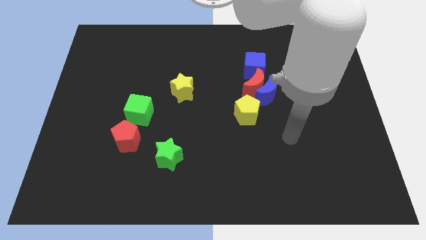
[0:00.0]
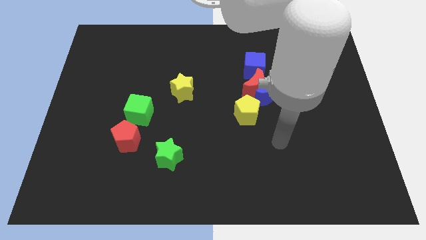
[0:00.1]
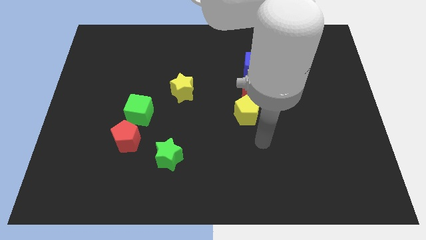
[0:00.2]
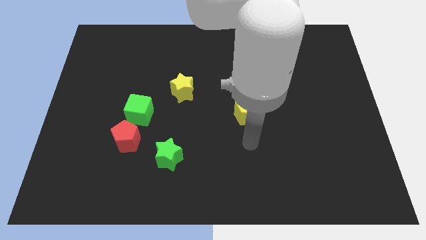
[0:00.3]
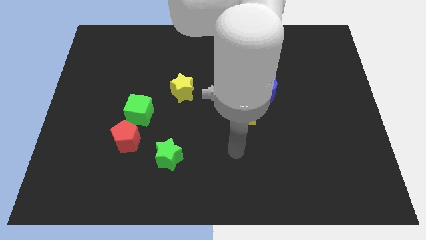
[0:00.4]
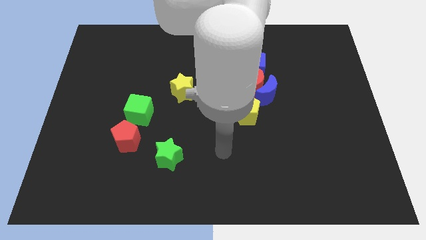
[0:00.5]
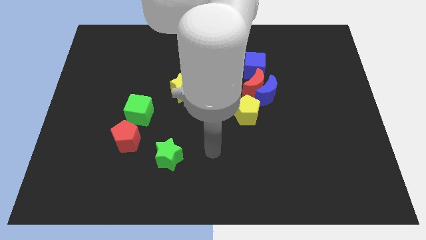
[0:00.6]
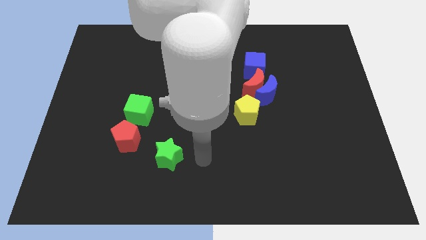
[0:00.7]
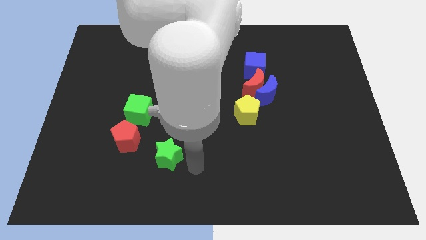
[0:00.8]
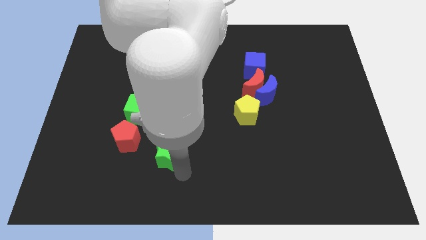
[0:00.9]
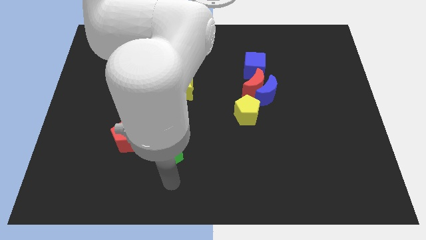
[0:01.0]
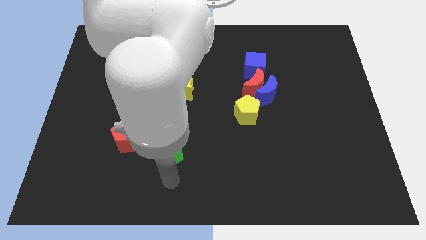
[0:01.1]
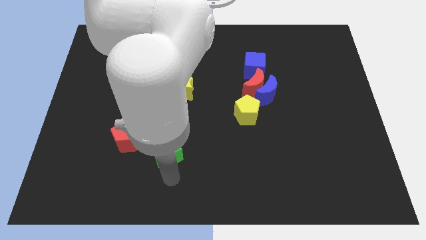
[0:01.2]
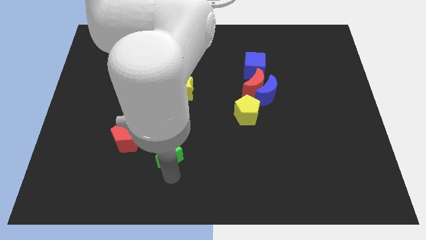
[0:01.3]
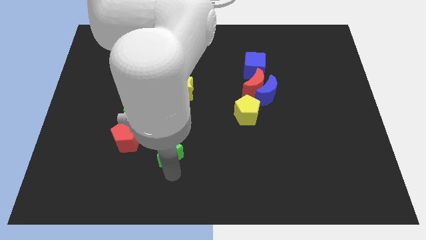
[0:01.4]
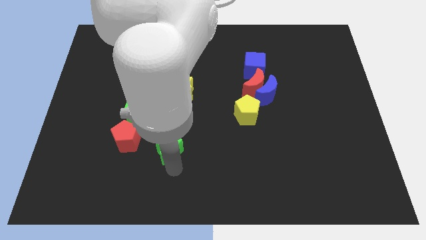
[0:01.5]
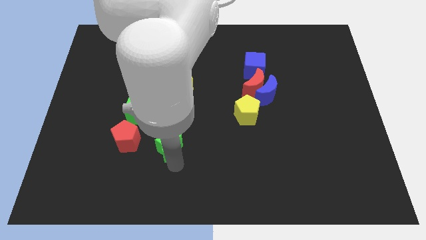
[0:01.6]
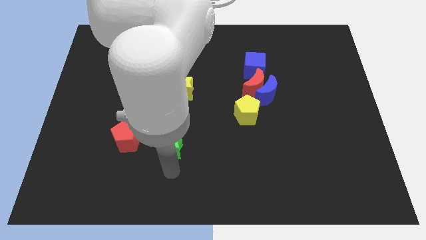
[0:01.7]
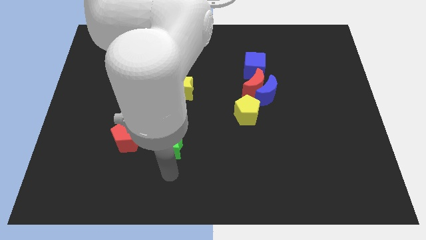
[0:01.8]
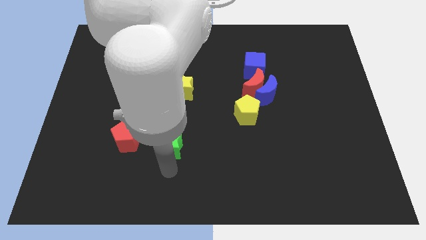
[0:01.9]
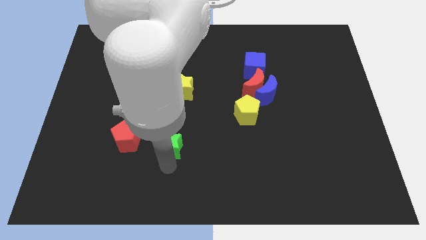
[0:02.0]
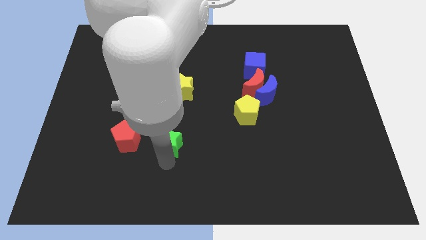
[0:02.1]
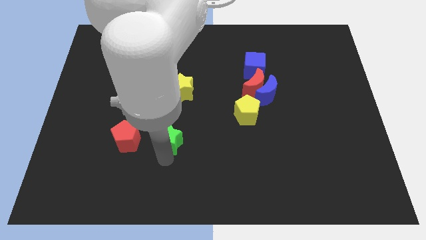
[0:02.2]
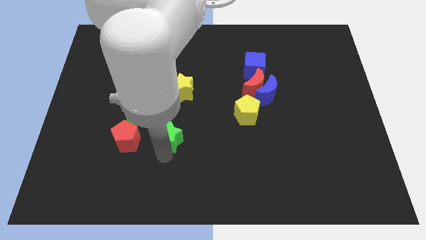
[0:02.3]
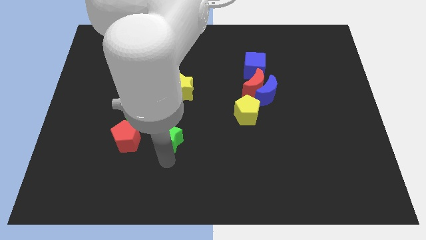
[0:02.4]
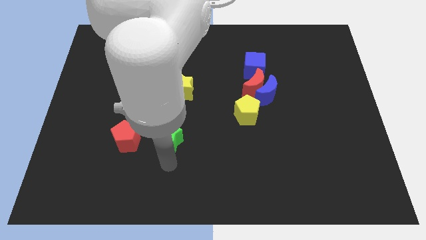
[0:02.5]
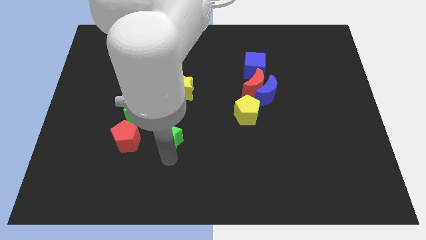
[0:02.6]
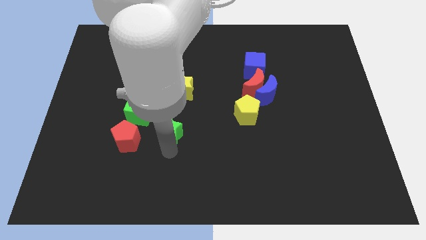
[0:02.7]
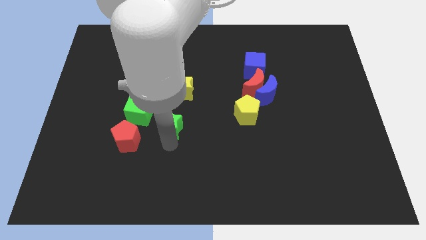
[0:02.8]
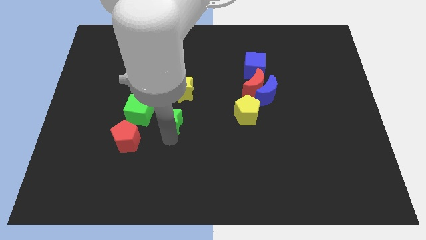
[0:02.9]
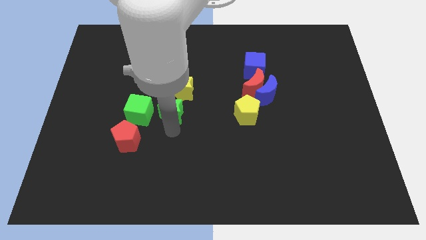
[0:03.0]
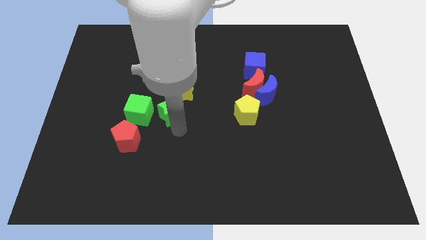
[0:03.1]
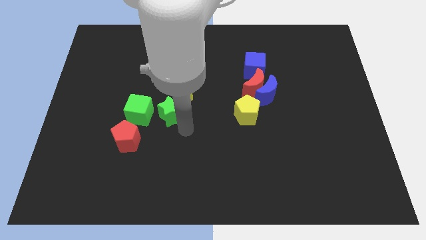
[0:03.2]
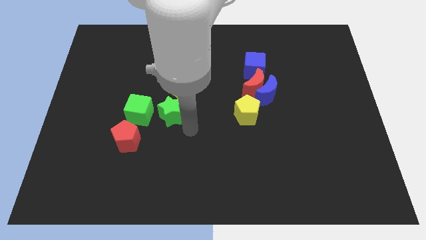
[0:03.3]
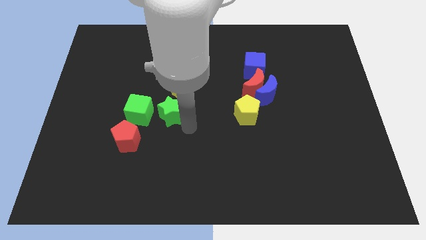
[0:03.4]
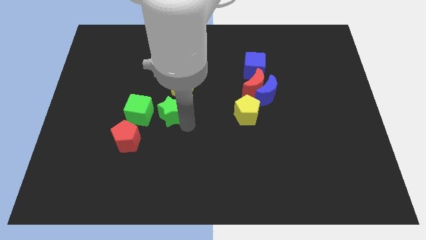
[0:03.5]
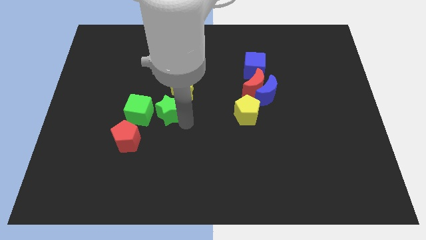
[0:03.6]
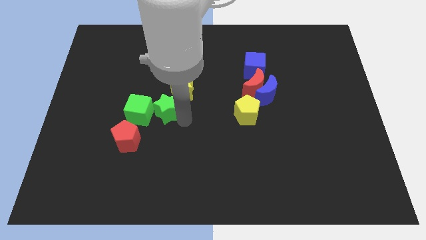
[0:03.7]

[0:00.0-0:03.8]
move the green star diagonally up and to the left a little

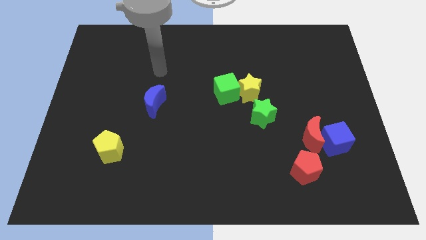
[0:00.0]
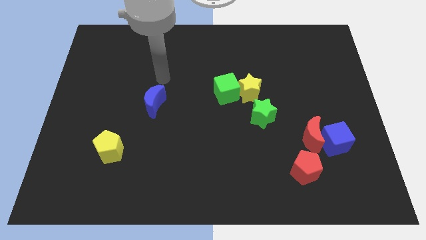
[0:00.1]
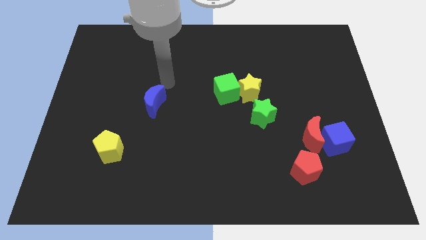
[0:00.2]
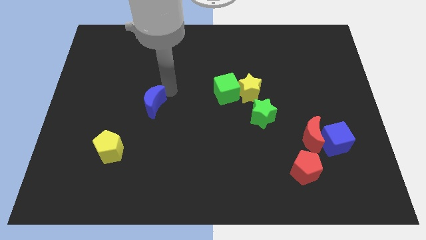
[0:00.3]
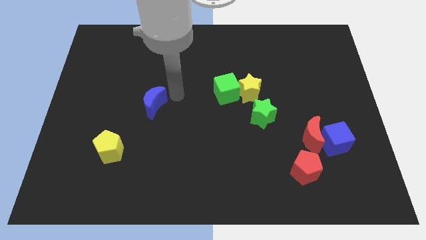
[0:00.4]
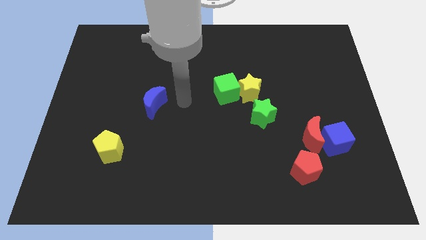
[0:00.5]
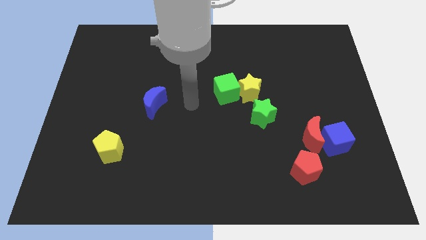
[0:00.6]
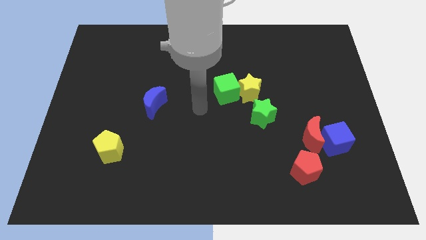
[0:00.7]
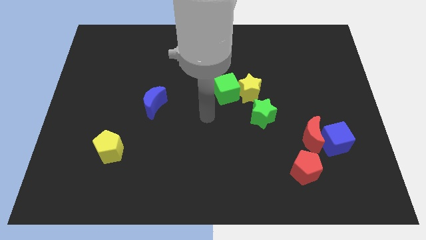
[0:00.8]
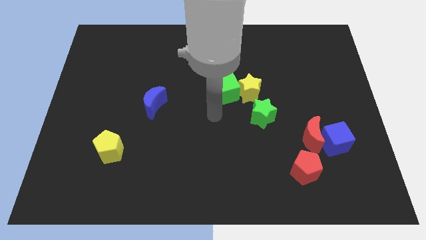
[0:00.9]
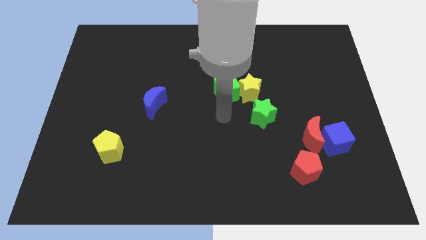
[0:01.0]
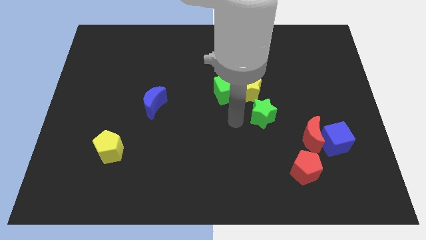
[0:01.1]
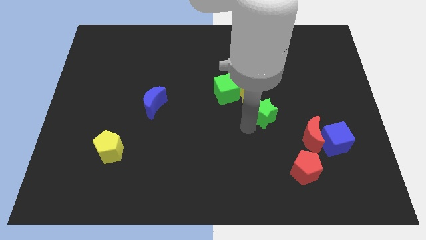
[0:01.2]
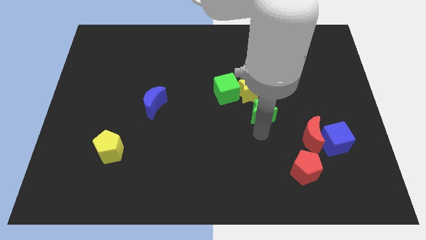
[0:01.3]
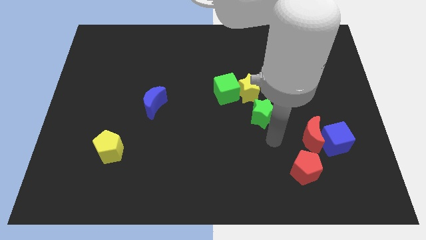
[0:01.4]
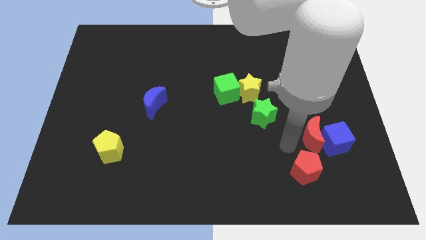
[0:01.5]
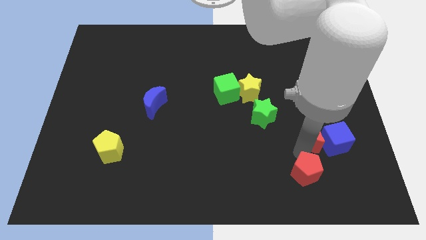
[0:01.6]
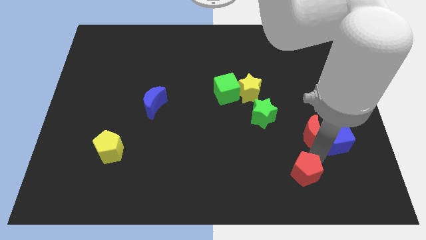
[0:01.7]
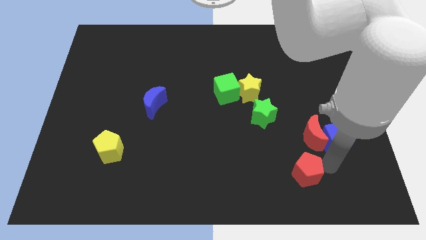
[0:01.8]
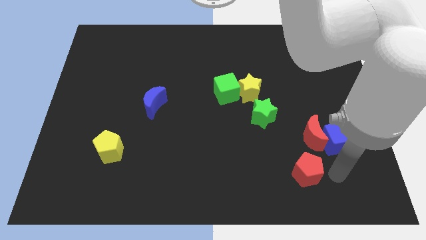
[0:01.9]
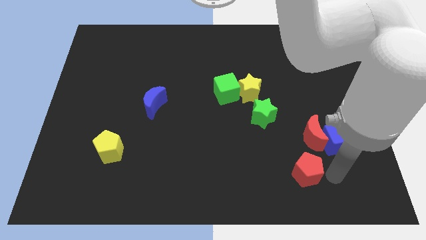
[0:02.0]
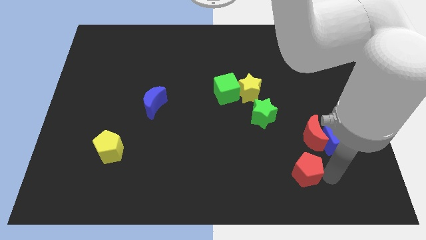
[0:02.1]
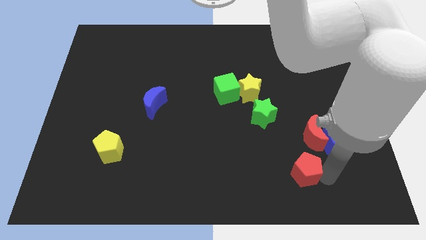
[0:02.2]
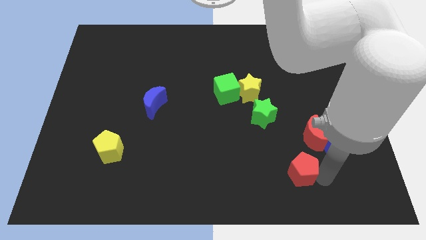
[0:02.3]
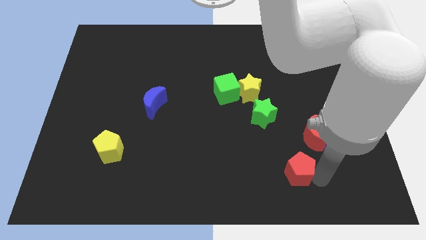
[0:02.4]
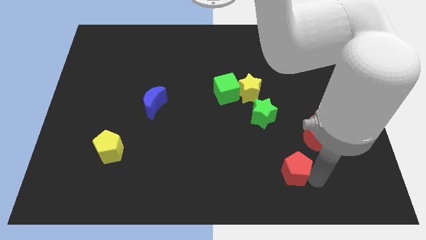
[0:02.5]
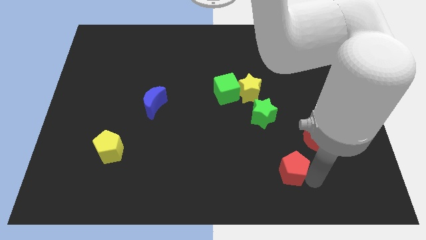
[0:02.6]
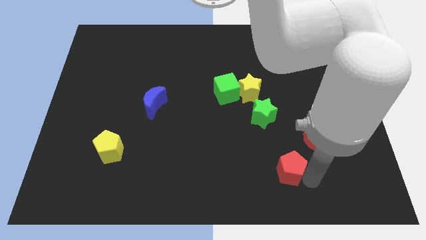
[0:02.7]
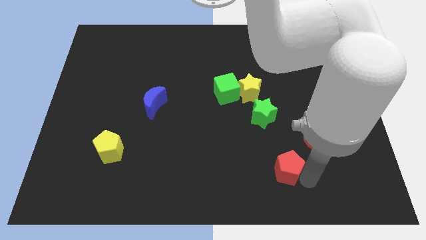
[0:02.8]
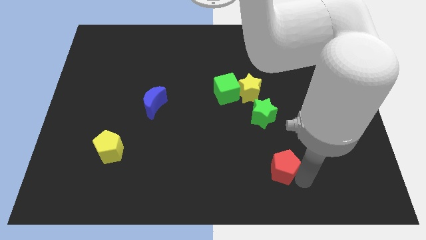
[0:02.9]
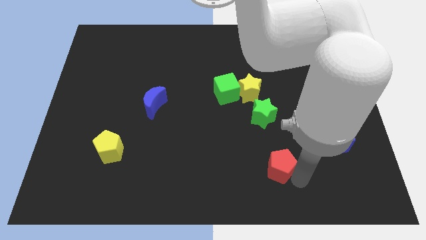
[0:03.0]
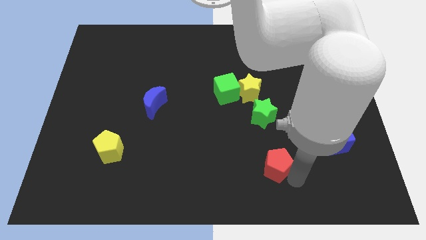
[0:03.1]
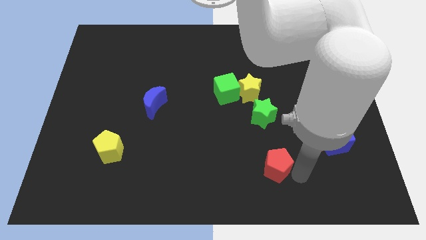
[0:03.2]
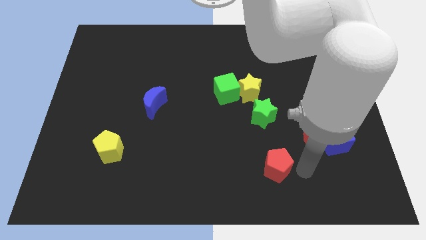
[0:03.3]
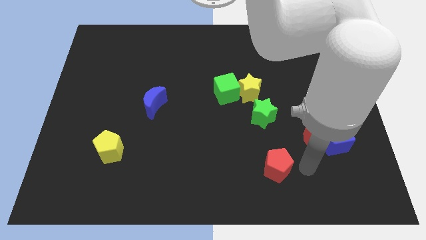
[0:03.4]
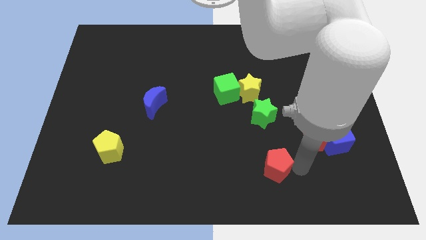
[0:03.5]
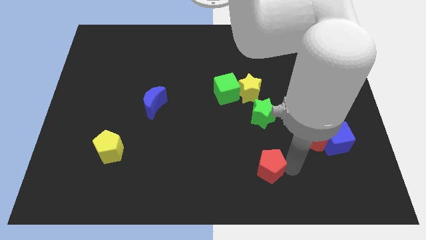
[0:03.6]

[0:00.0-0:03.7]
slide the red pentagon slightly left
